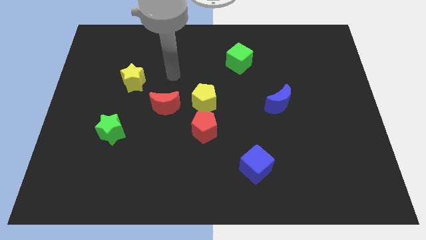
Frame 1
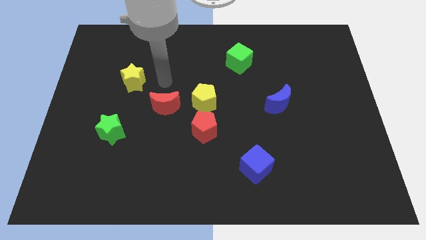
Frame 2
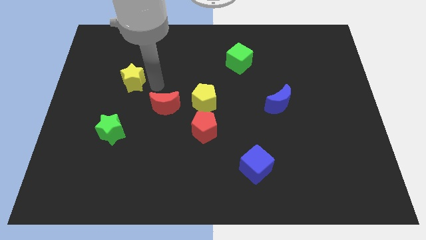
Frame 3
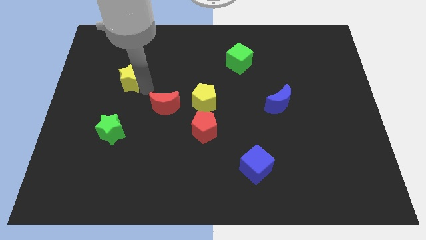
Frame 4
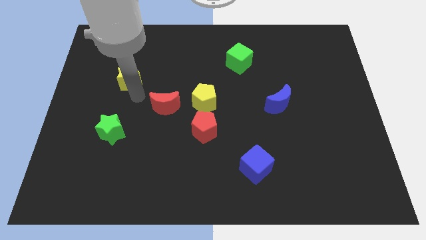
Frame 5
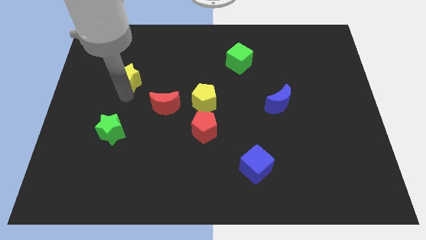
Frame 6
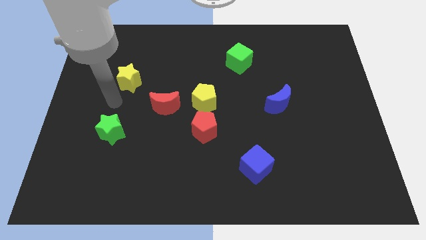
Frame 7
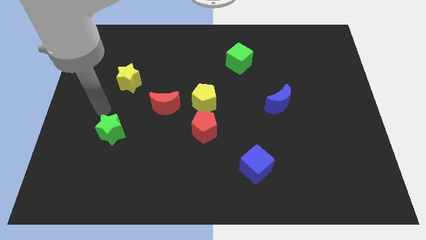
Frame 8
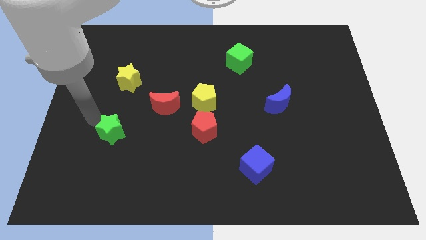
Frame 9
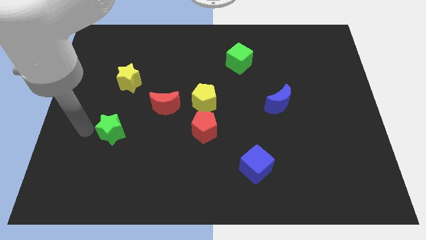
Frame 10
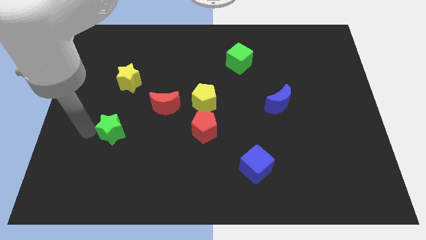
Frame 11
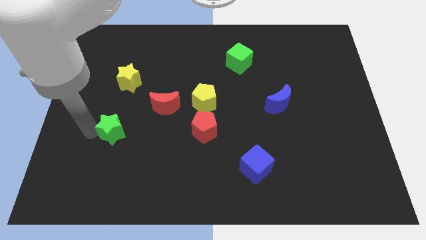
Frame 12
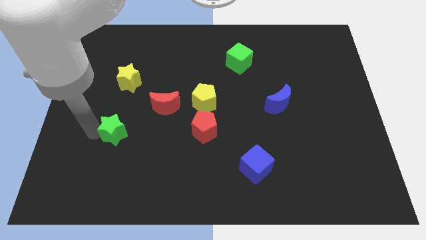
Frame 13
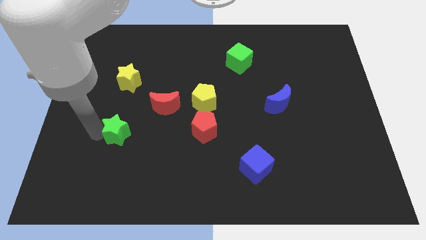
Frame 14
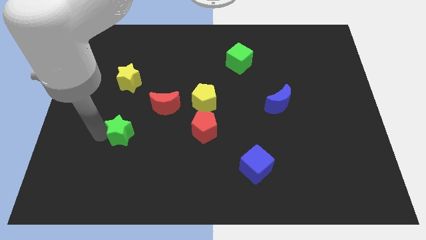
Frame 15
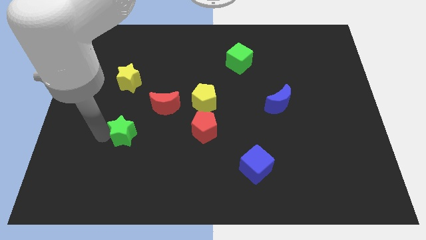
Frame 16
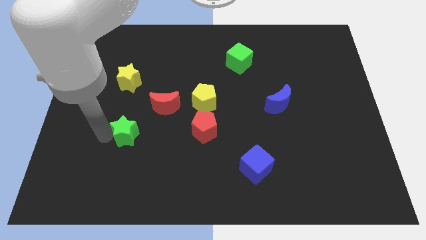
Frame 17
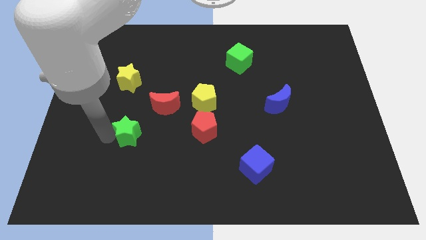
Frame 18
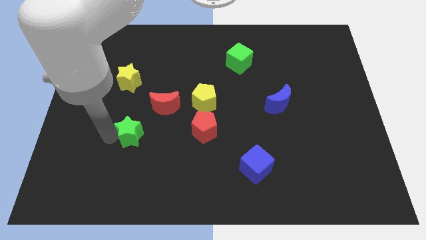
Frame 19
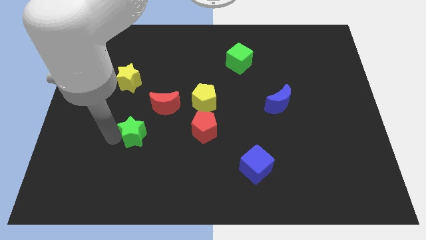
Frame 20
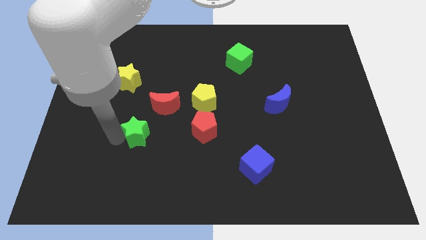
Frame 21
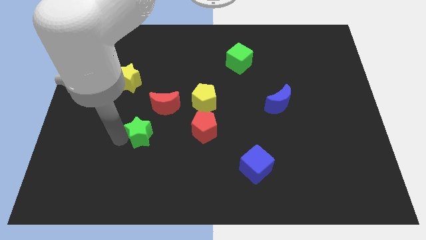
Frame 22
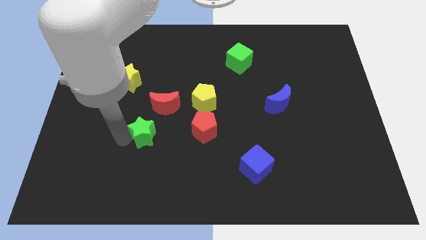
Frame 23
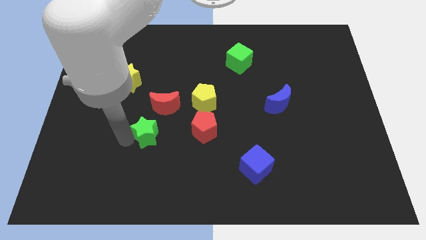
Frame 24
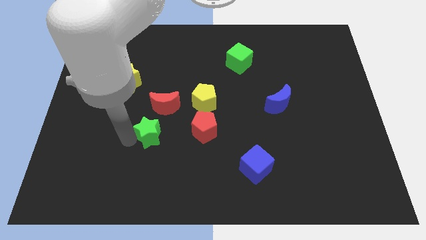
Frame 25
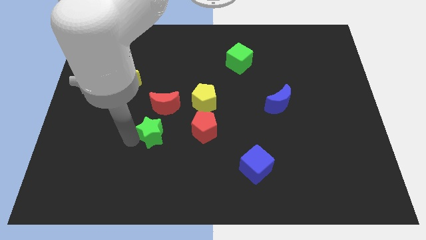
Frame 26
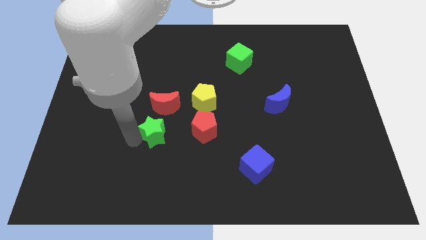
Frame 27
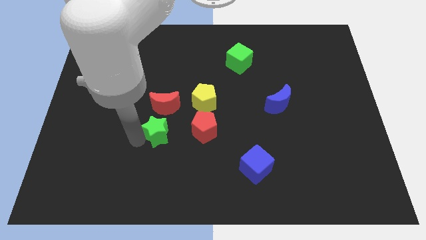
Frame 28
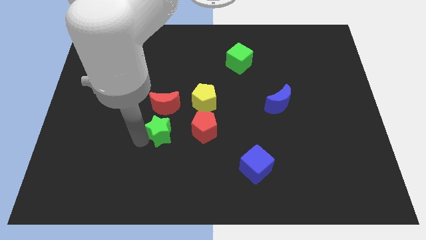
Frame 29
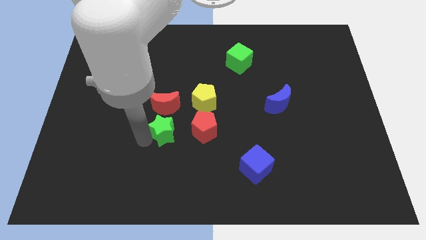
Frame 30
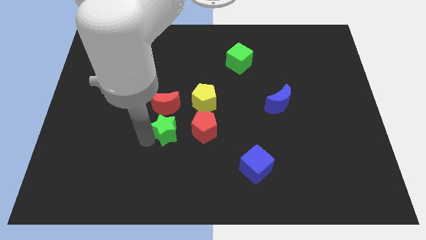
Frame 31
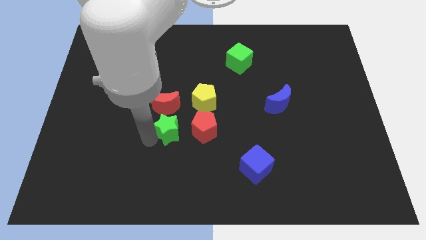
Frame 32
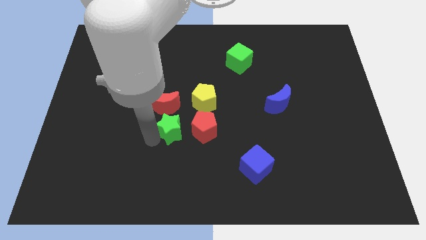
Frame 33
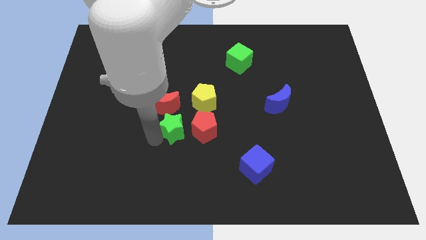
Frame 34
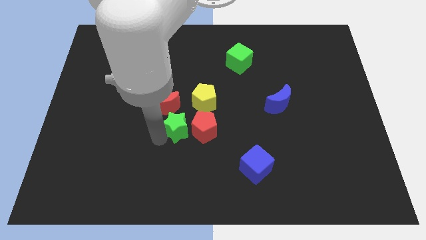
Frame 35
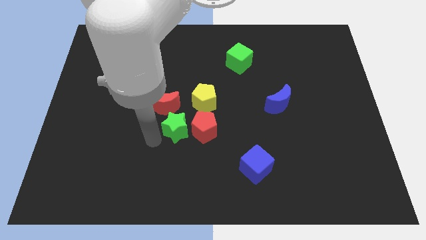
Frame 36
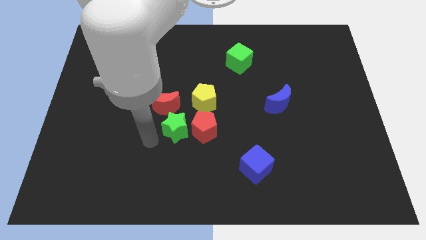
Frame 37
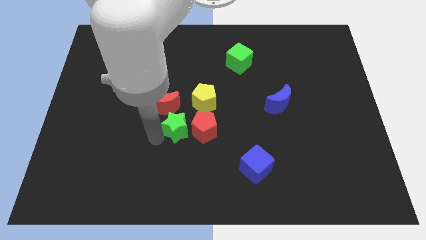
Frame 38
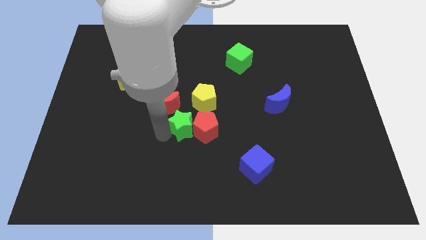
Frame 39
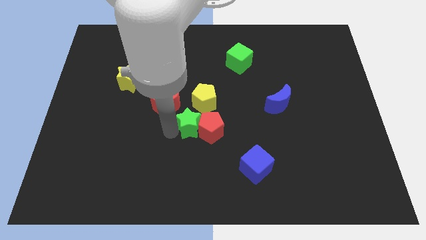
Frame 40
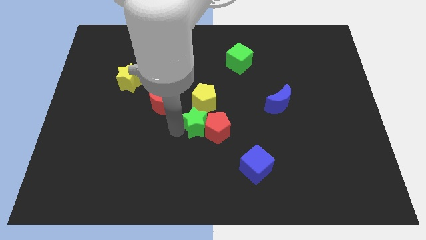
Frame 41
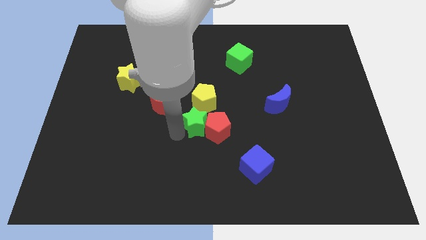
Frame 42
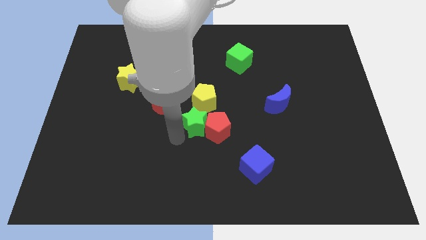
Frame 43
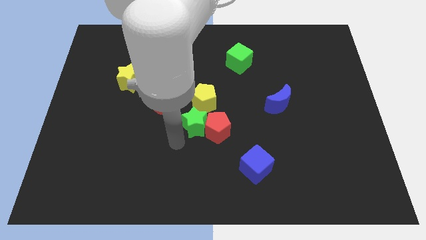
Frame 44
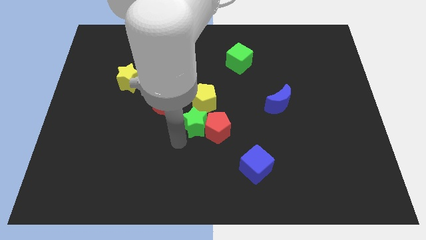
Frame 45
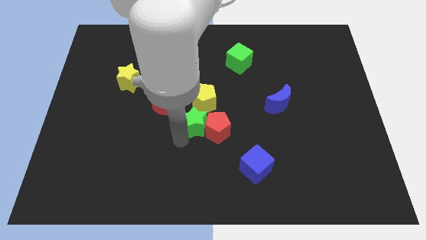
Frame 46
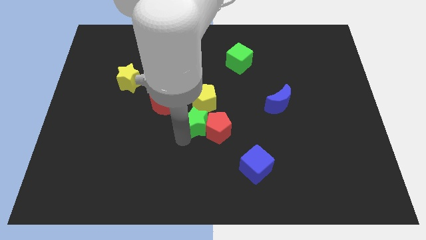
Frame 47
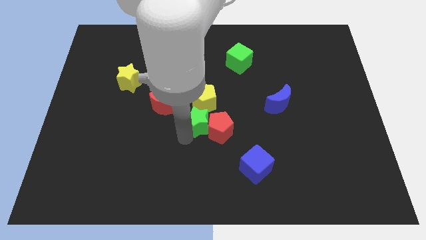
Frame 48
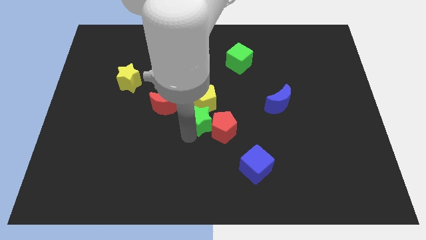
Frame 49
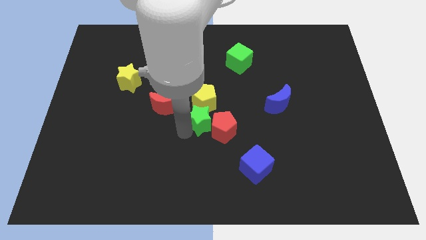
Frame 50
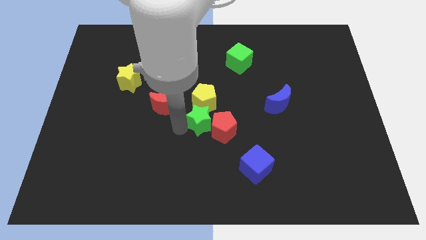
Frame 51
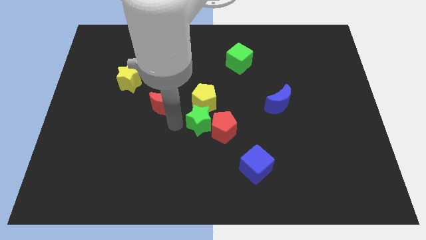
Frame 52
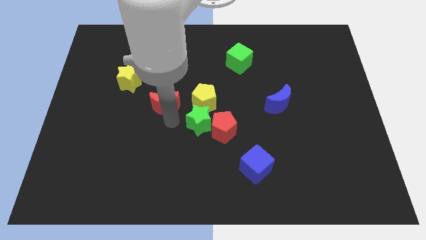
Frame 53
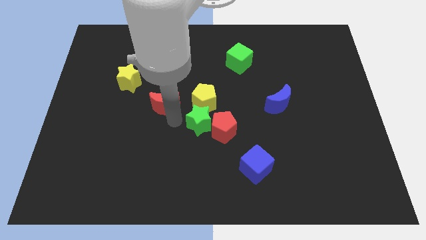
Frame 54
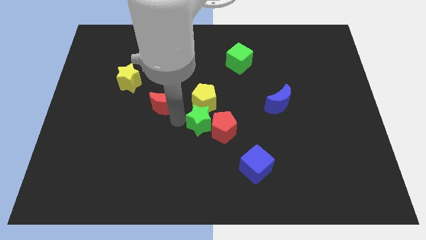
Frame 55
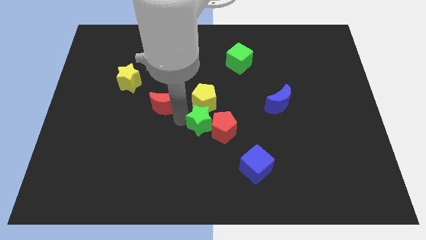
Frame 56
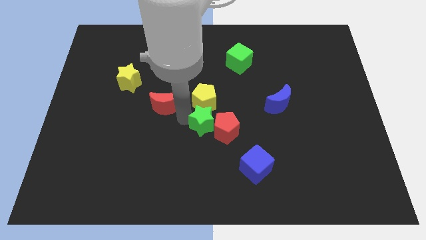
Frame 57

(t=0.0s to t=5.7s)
slide the green star right

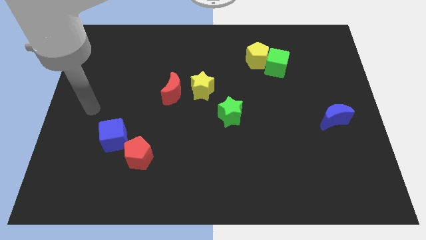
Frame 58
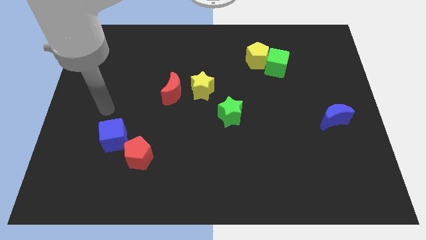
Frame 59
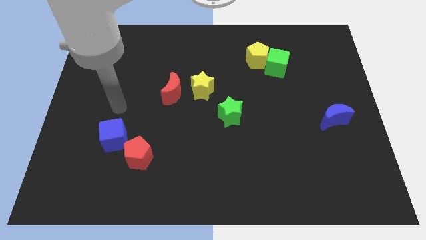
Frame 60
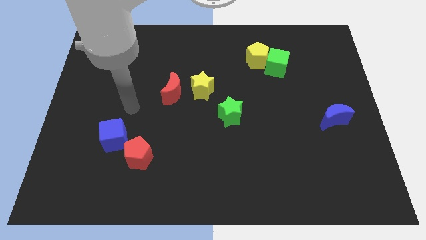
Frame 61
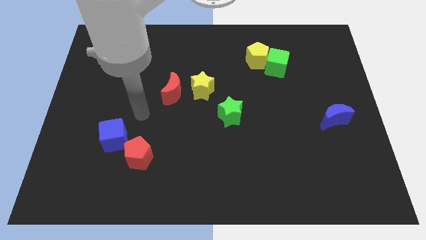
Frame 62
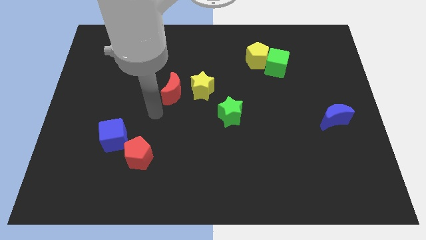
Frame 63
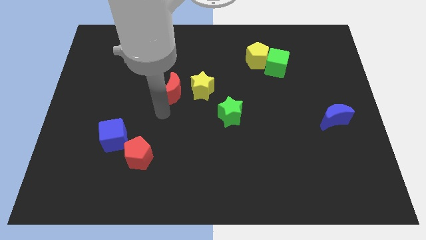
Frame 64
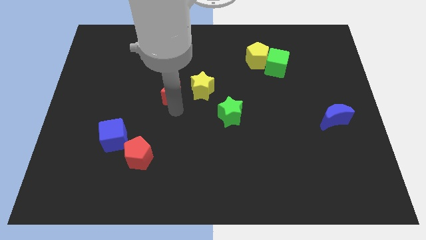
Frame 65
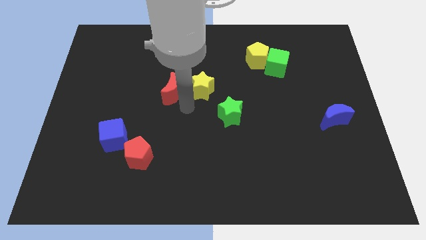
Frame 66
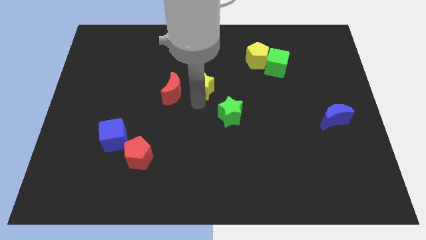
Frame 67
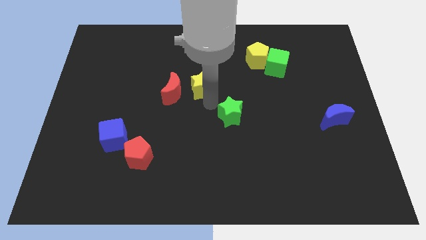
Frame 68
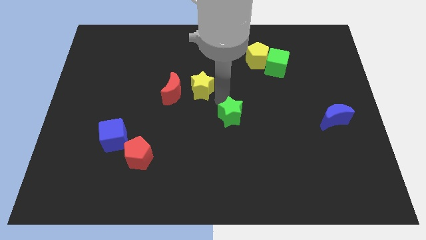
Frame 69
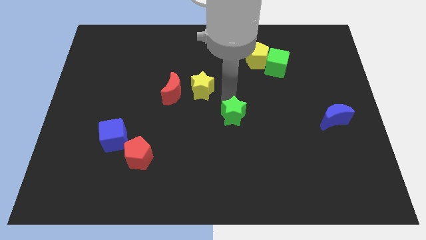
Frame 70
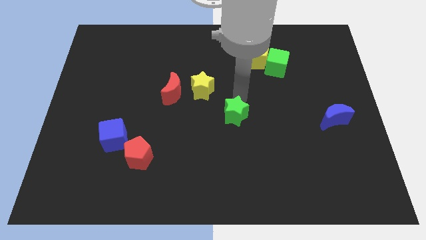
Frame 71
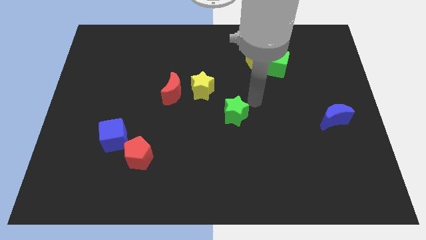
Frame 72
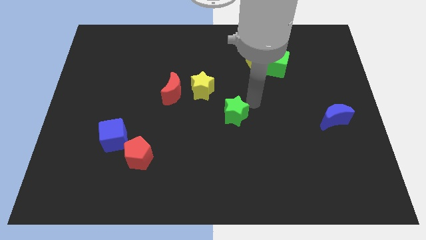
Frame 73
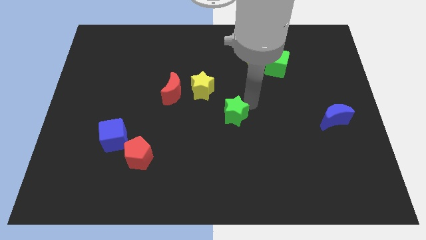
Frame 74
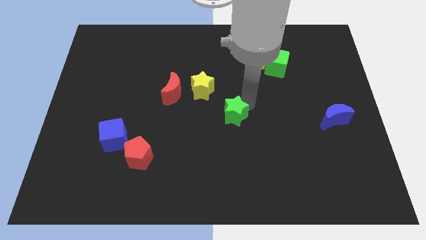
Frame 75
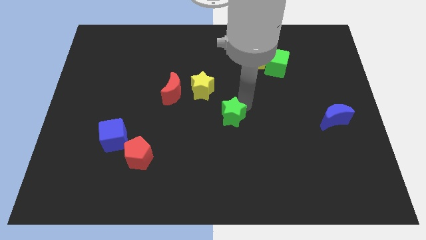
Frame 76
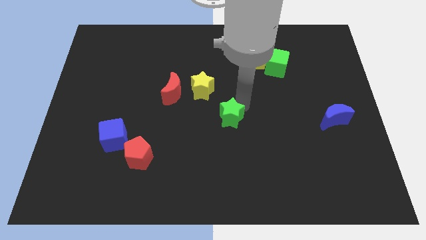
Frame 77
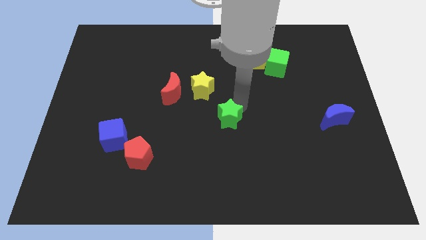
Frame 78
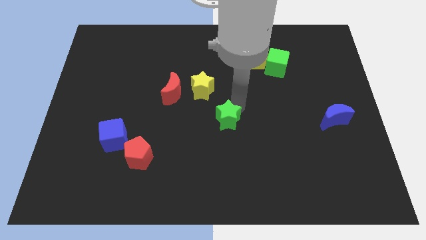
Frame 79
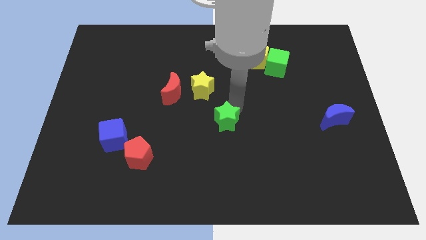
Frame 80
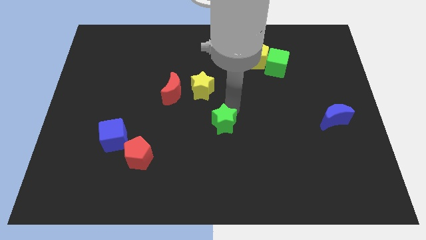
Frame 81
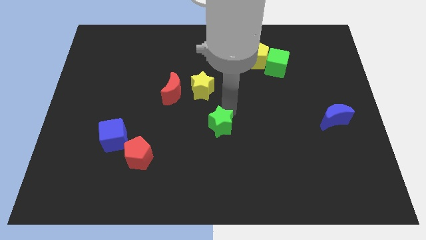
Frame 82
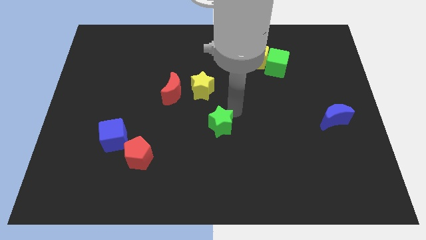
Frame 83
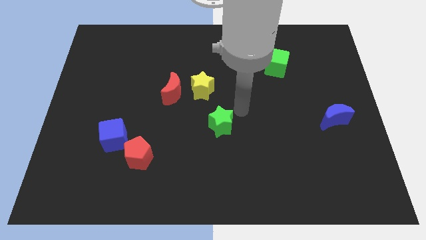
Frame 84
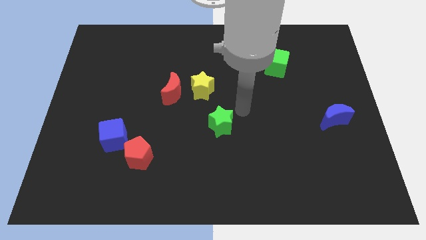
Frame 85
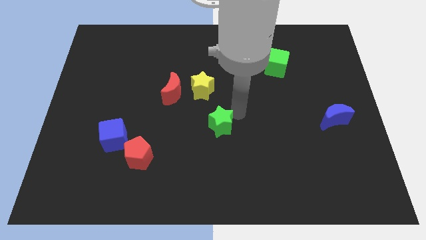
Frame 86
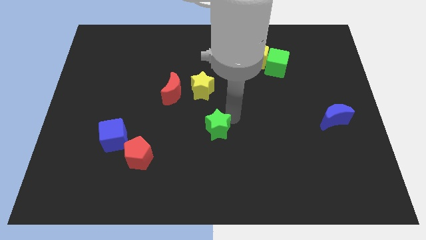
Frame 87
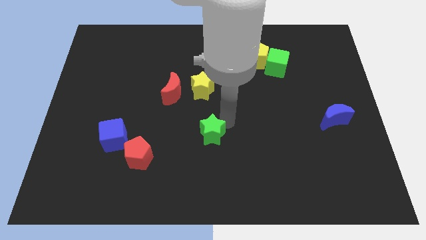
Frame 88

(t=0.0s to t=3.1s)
slightly slide the green star diagonally down and to the left
